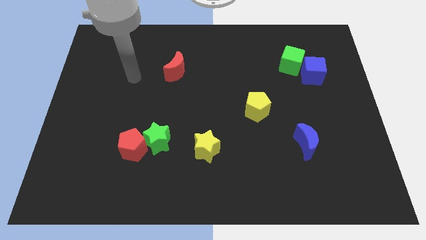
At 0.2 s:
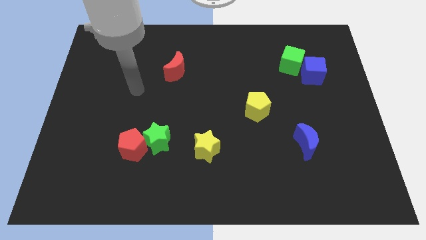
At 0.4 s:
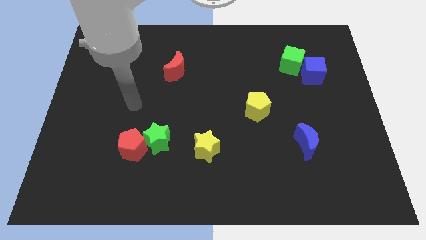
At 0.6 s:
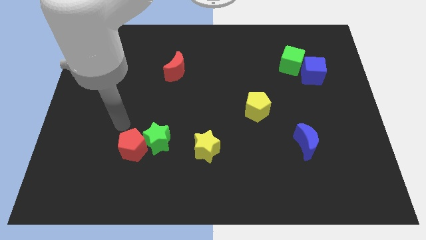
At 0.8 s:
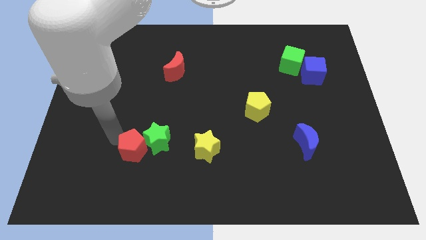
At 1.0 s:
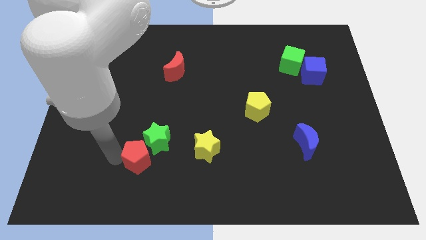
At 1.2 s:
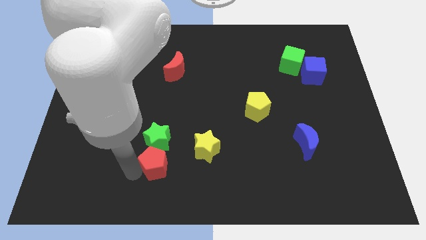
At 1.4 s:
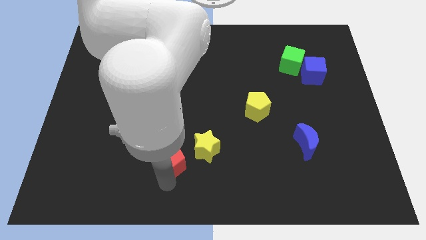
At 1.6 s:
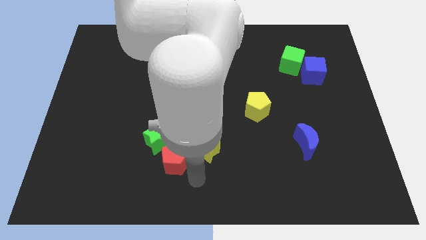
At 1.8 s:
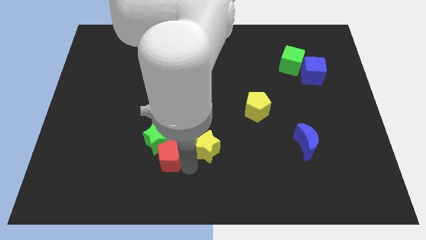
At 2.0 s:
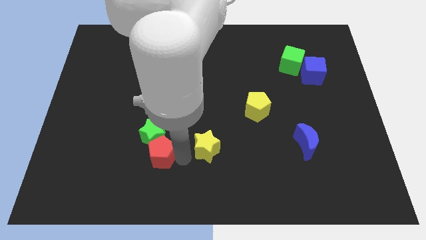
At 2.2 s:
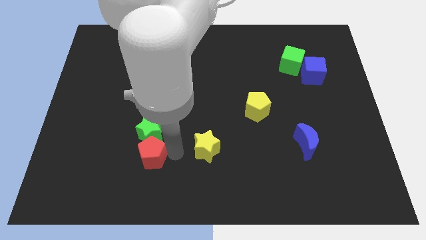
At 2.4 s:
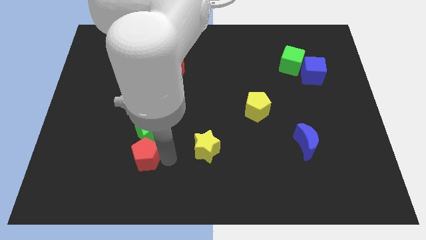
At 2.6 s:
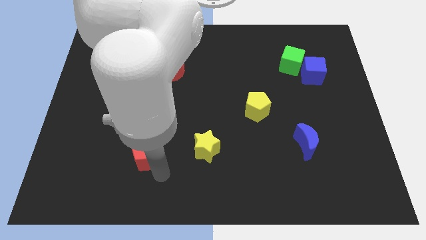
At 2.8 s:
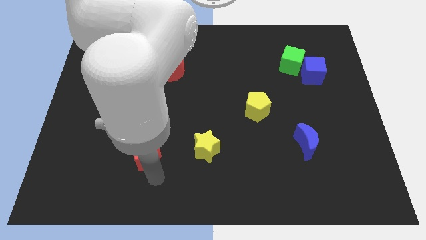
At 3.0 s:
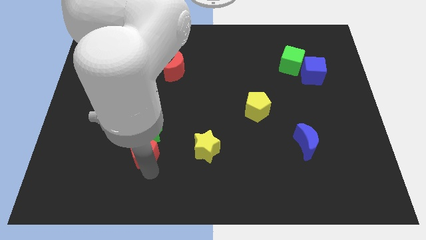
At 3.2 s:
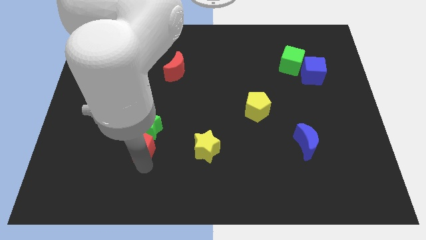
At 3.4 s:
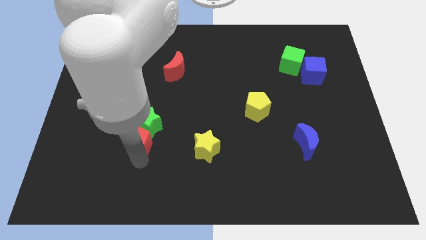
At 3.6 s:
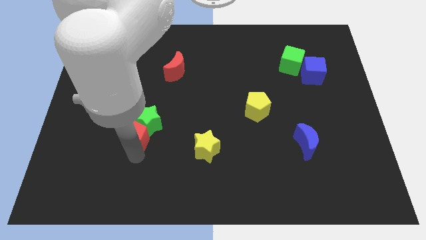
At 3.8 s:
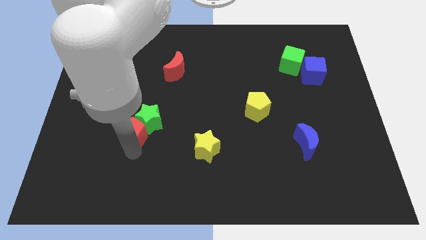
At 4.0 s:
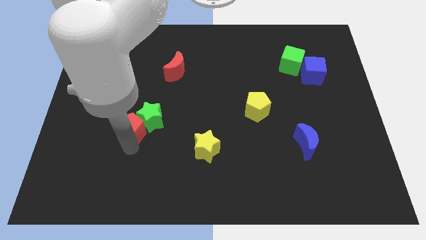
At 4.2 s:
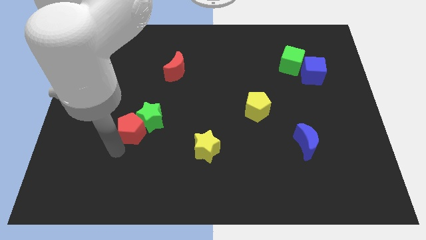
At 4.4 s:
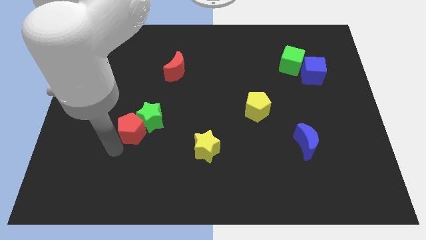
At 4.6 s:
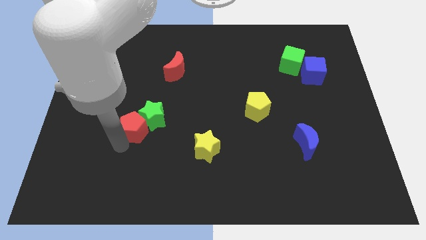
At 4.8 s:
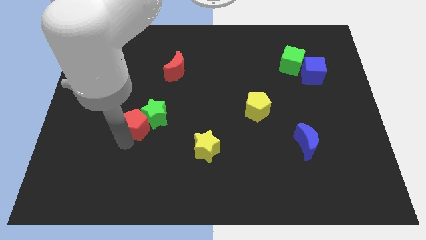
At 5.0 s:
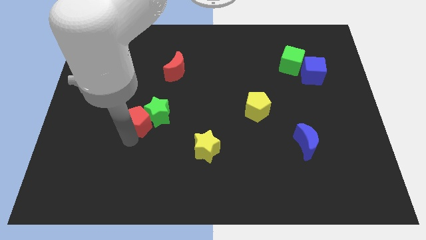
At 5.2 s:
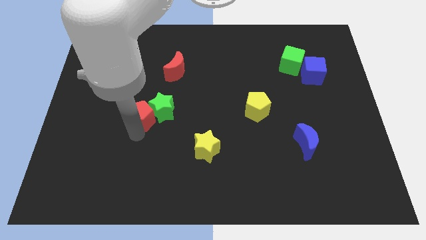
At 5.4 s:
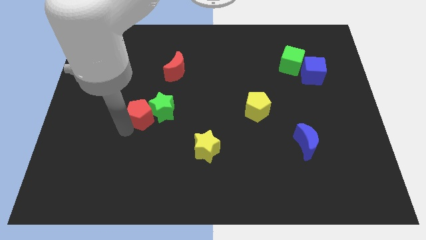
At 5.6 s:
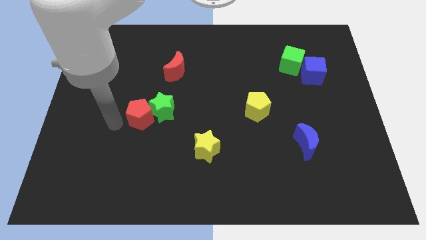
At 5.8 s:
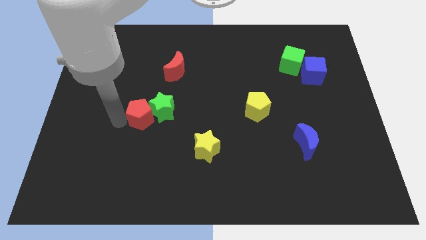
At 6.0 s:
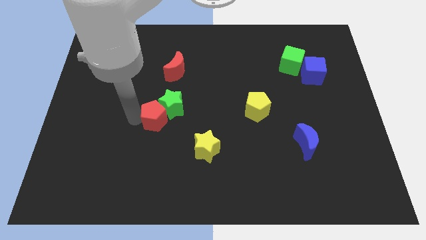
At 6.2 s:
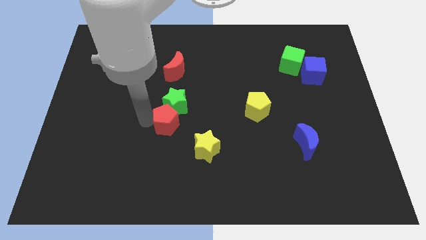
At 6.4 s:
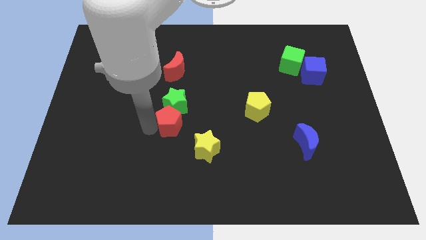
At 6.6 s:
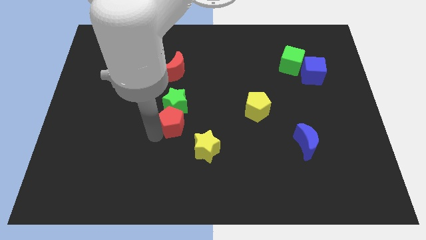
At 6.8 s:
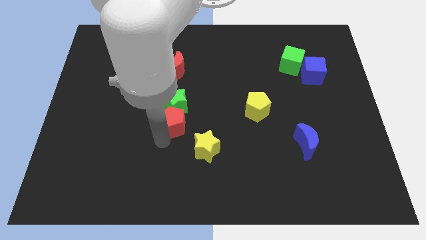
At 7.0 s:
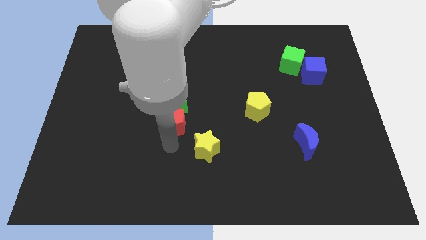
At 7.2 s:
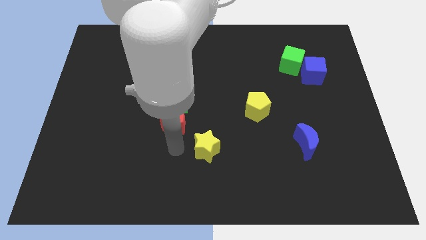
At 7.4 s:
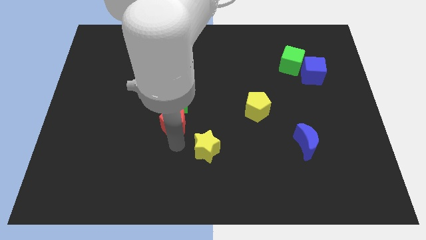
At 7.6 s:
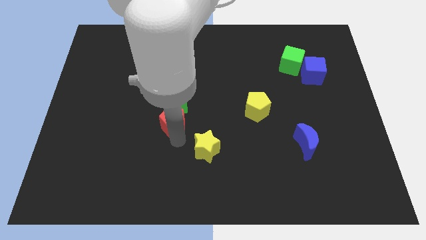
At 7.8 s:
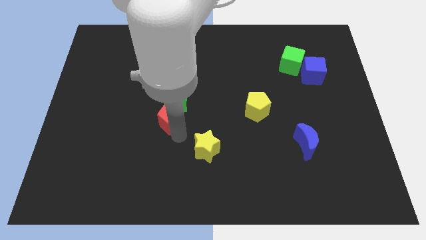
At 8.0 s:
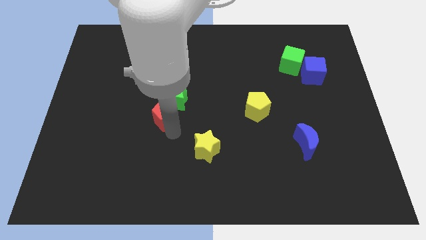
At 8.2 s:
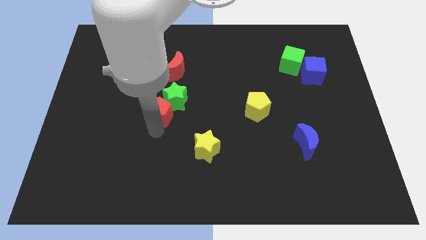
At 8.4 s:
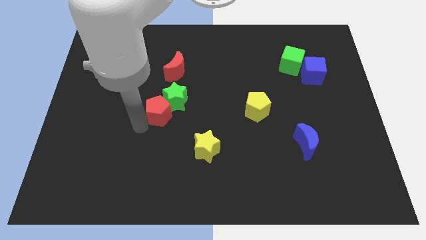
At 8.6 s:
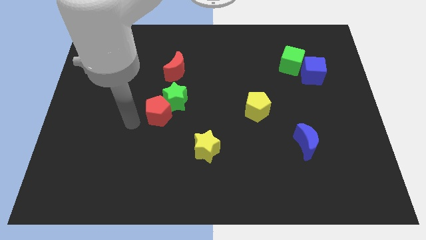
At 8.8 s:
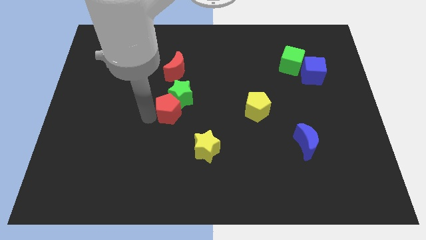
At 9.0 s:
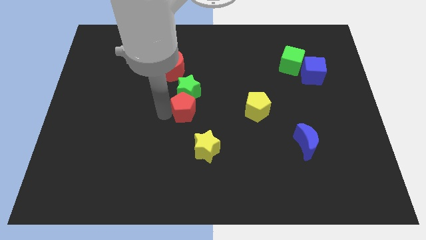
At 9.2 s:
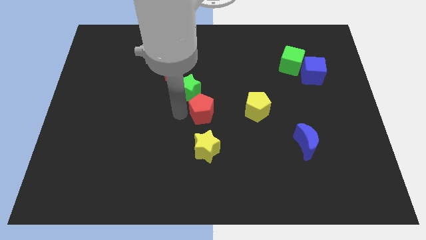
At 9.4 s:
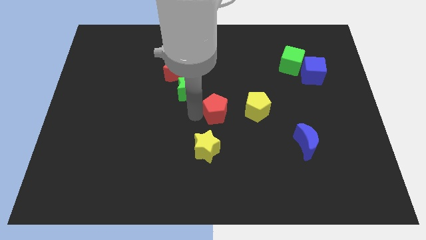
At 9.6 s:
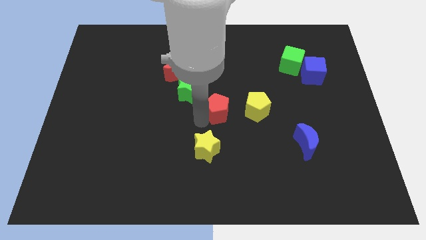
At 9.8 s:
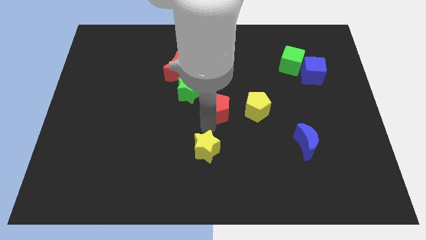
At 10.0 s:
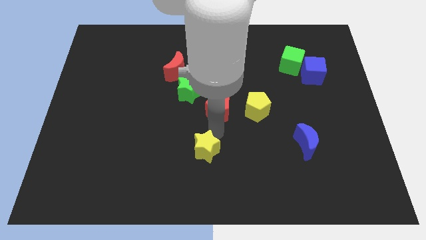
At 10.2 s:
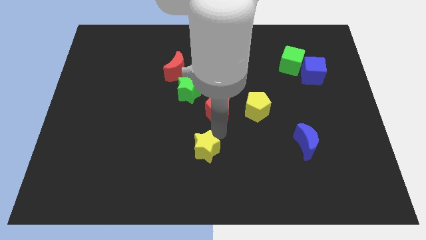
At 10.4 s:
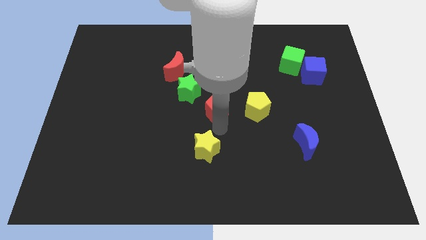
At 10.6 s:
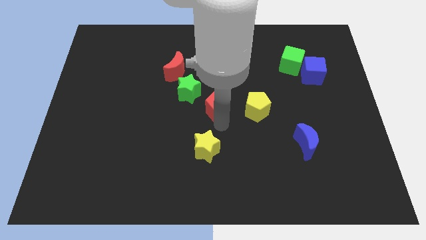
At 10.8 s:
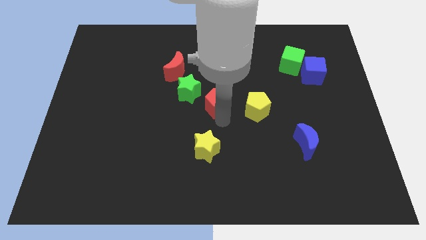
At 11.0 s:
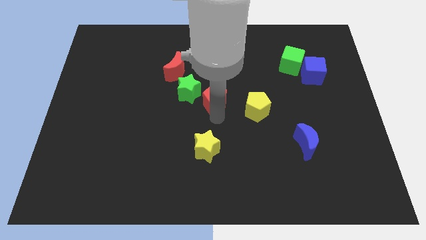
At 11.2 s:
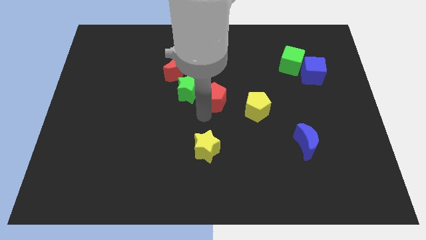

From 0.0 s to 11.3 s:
slide the red pentagon to the top left of the yellow pentagon

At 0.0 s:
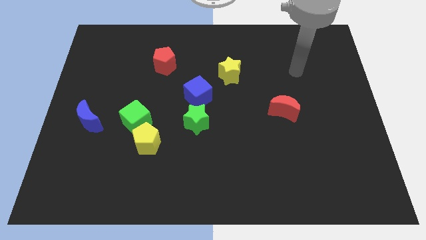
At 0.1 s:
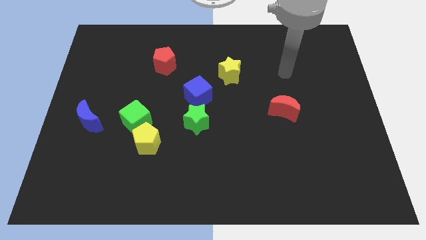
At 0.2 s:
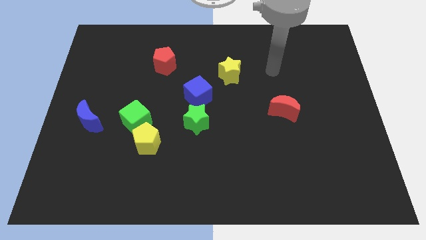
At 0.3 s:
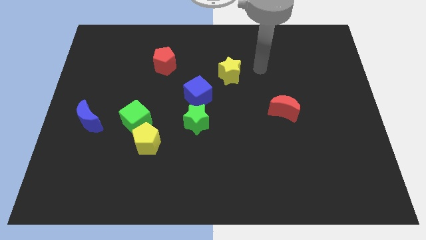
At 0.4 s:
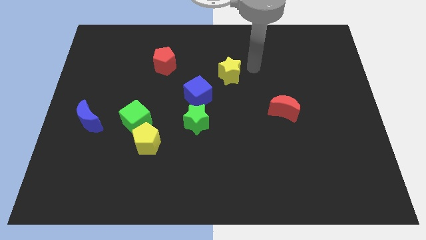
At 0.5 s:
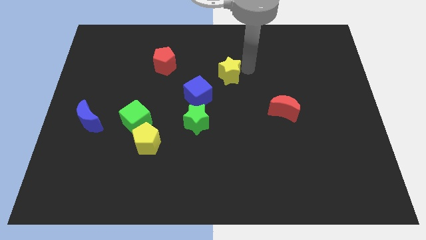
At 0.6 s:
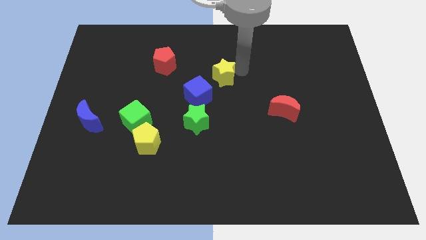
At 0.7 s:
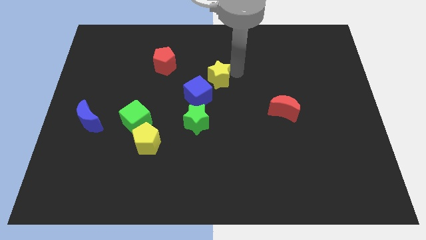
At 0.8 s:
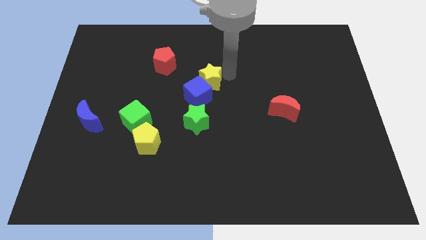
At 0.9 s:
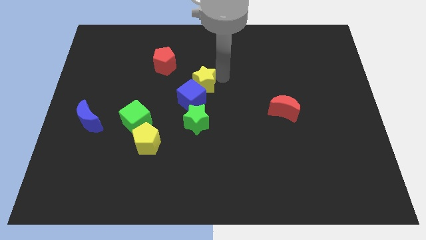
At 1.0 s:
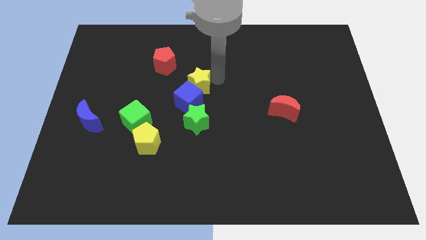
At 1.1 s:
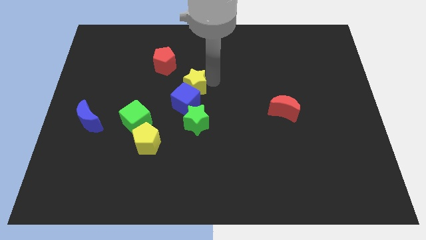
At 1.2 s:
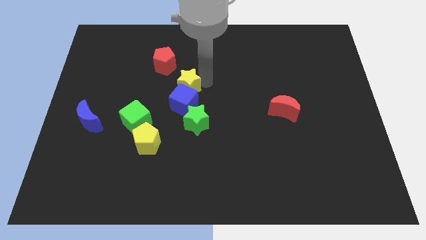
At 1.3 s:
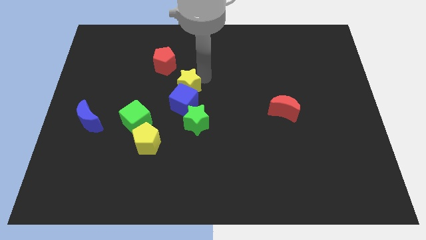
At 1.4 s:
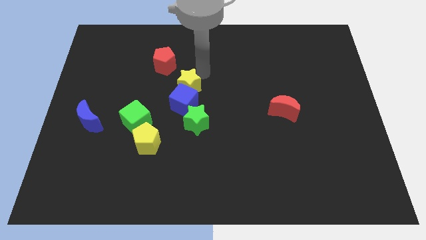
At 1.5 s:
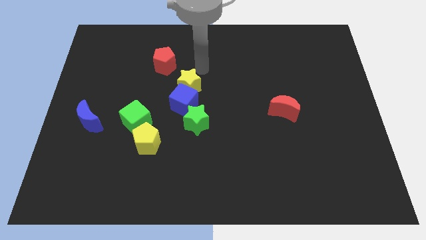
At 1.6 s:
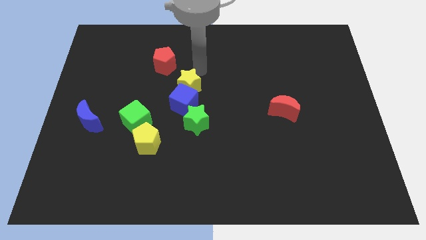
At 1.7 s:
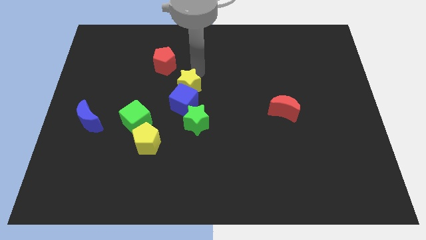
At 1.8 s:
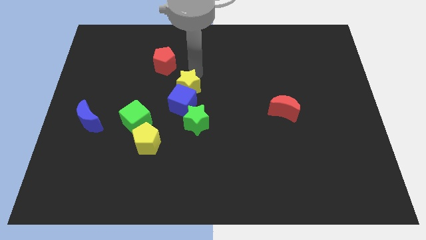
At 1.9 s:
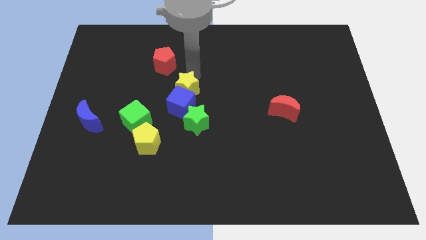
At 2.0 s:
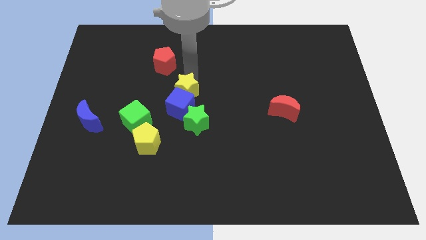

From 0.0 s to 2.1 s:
slide the yellow star to the top left of the green star
